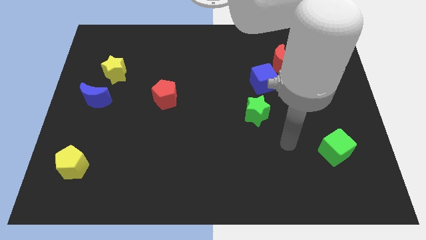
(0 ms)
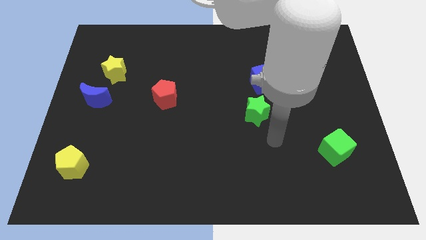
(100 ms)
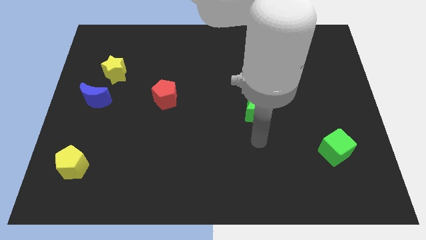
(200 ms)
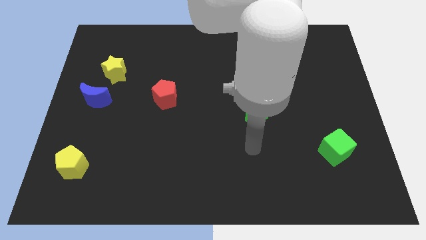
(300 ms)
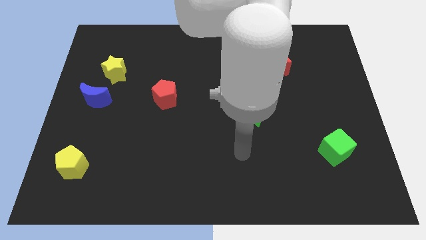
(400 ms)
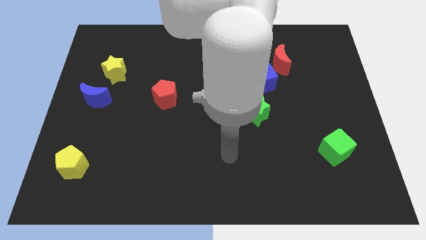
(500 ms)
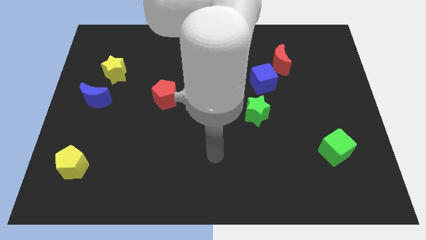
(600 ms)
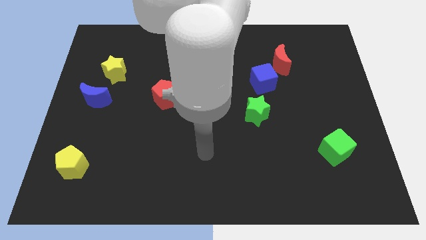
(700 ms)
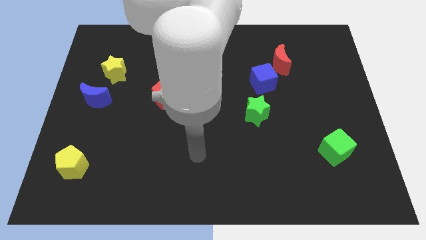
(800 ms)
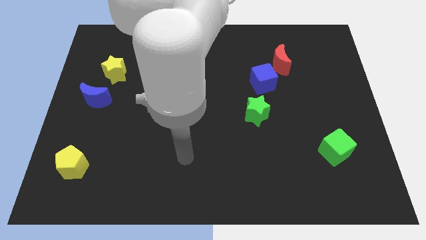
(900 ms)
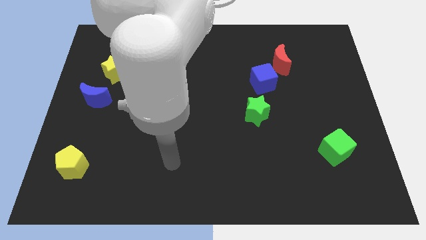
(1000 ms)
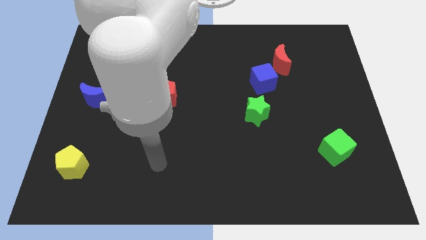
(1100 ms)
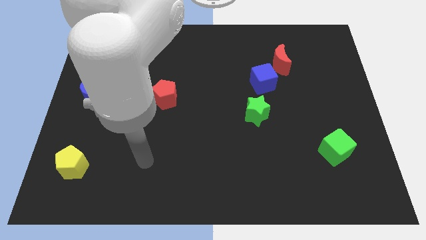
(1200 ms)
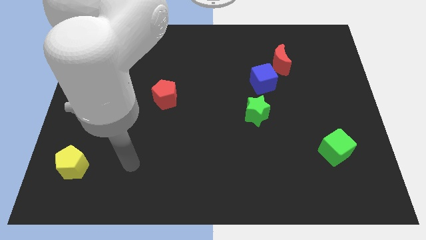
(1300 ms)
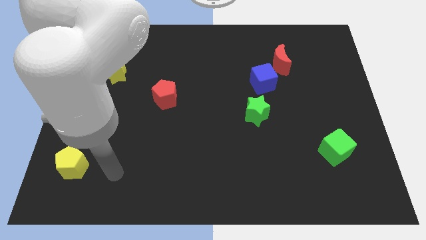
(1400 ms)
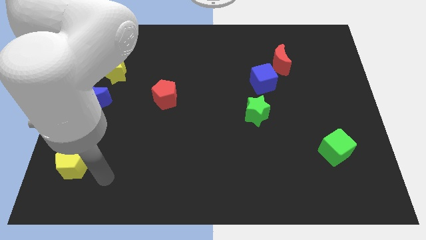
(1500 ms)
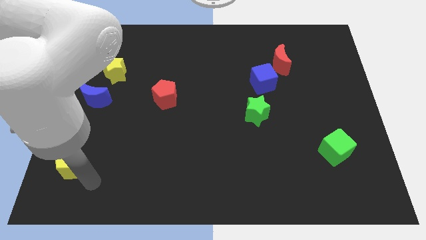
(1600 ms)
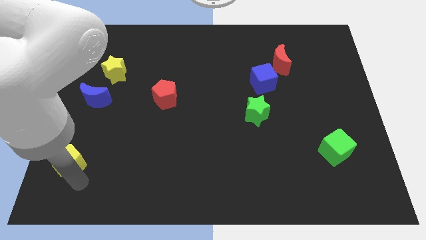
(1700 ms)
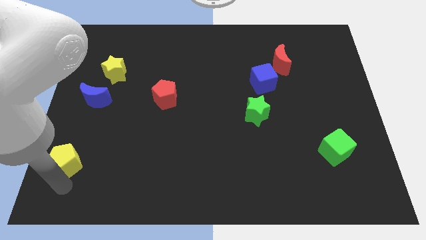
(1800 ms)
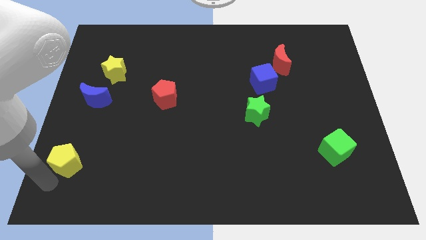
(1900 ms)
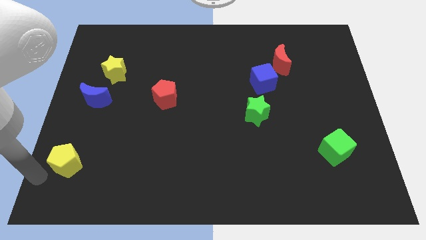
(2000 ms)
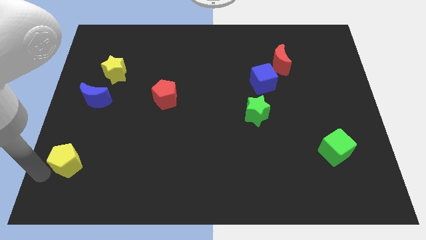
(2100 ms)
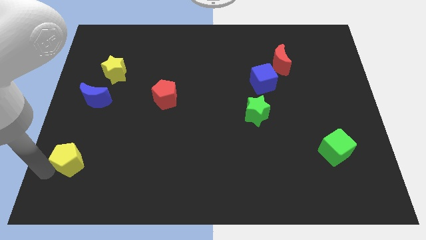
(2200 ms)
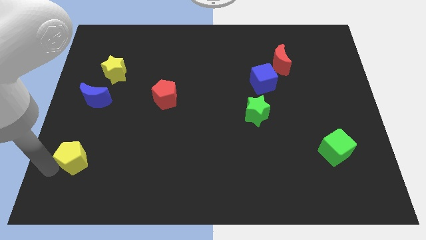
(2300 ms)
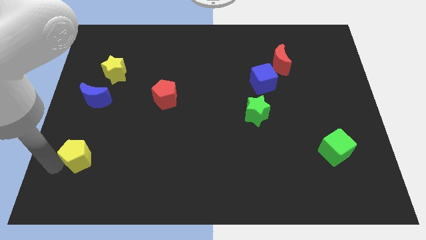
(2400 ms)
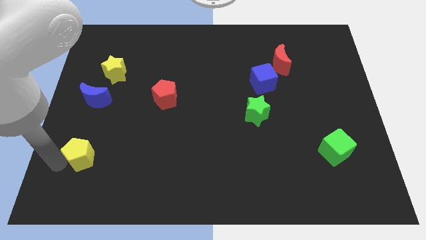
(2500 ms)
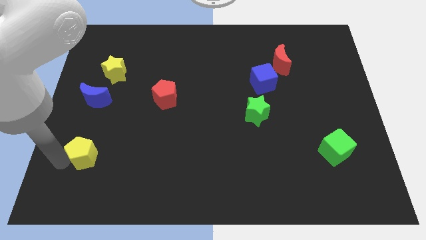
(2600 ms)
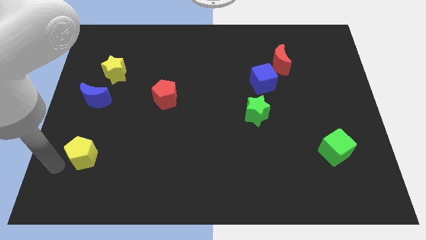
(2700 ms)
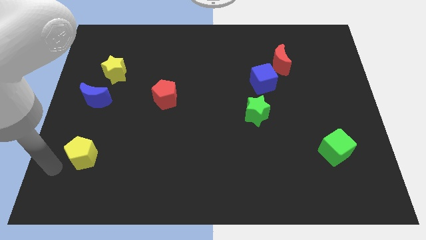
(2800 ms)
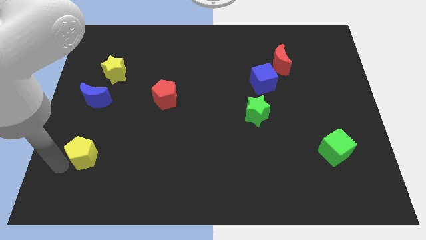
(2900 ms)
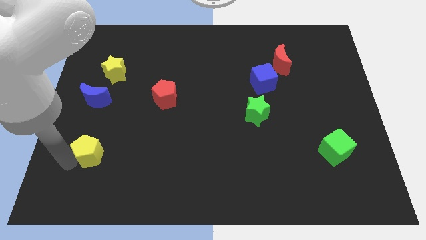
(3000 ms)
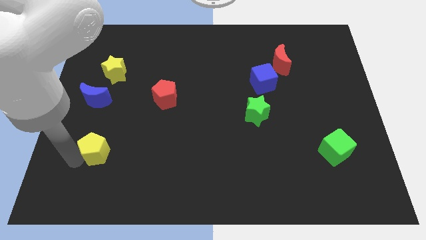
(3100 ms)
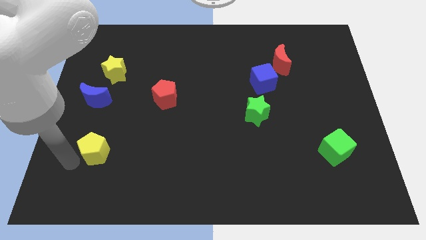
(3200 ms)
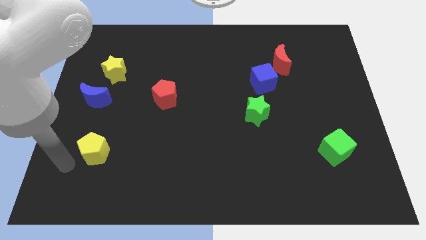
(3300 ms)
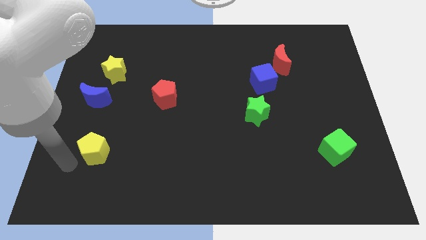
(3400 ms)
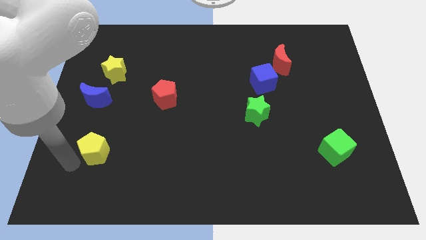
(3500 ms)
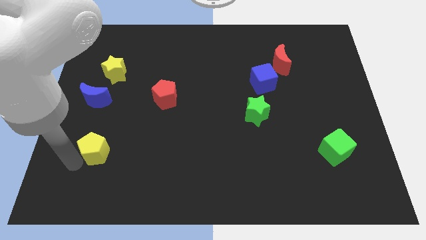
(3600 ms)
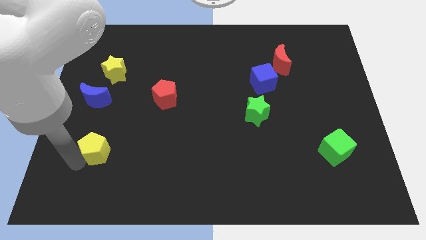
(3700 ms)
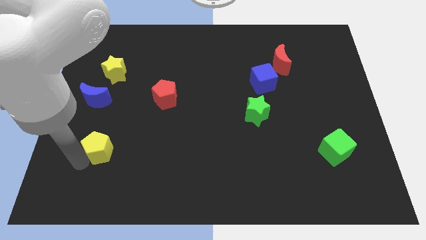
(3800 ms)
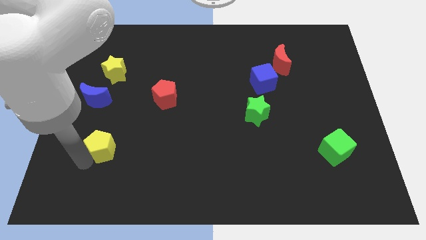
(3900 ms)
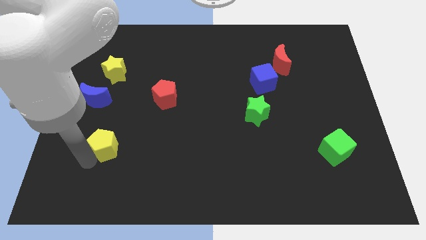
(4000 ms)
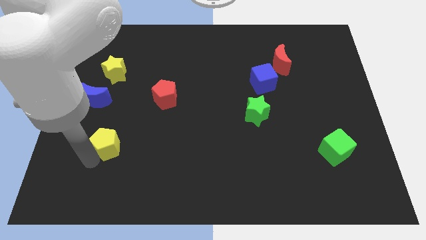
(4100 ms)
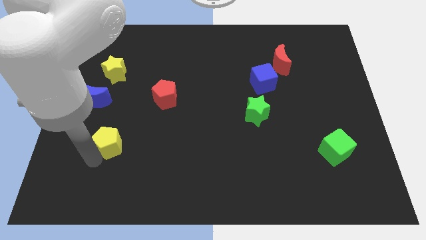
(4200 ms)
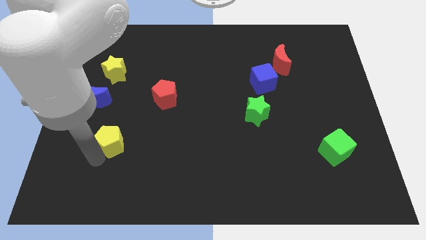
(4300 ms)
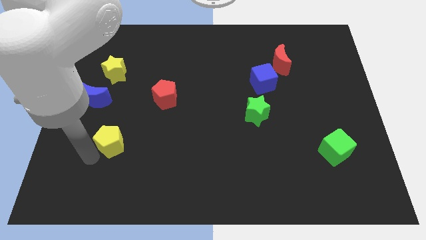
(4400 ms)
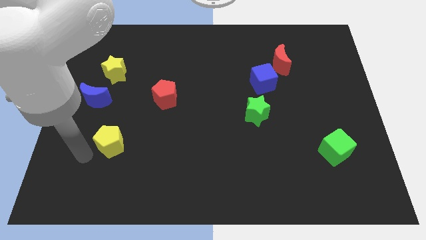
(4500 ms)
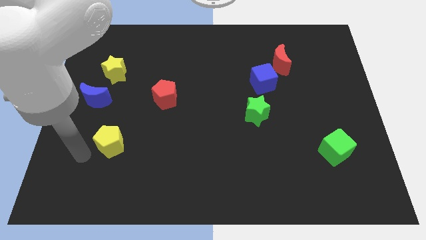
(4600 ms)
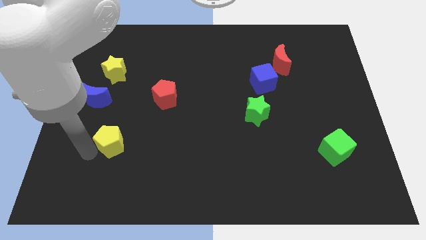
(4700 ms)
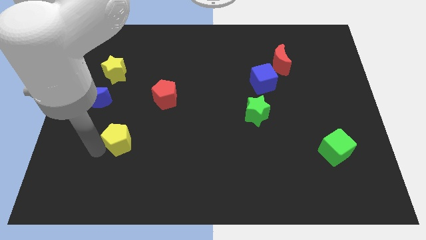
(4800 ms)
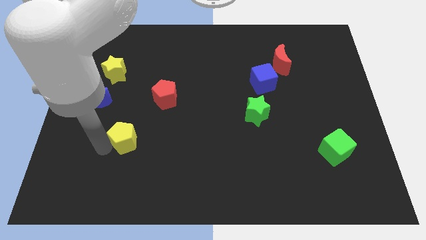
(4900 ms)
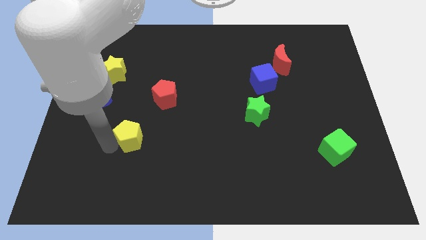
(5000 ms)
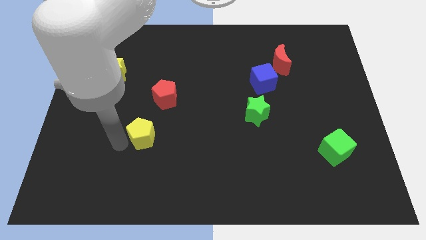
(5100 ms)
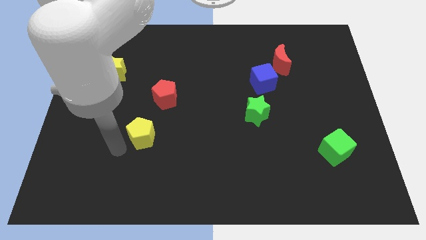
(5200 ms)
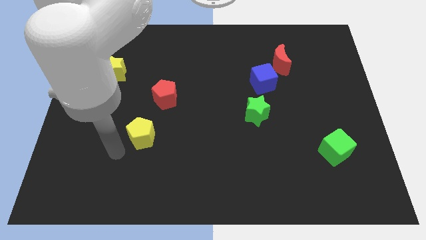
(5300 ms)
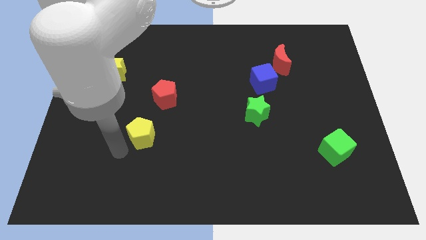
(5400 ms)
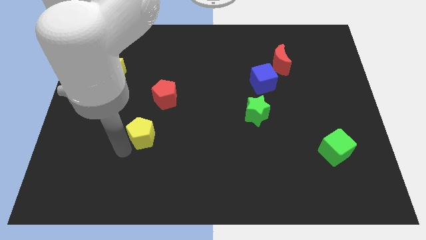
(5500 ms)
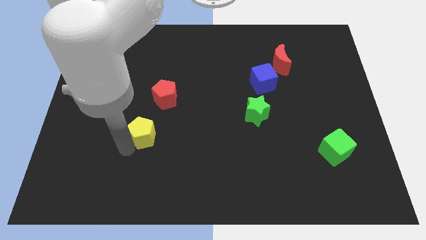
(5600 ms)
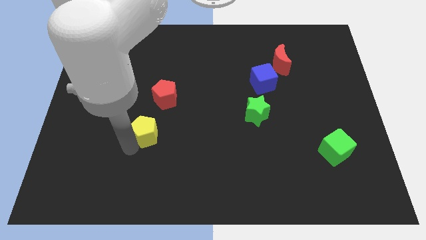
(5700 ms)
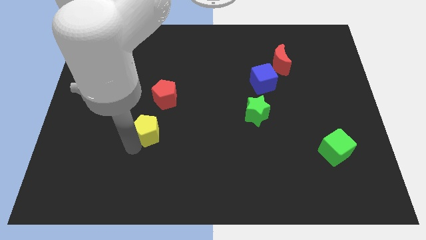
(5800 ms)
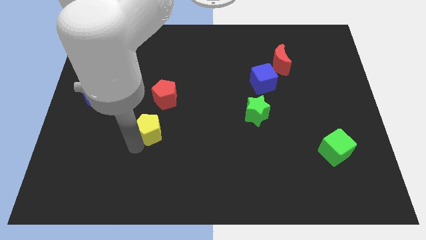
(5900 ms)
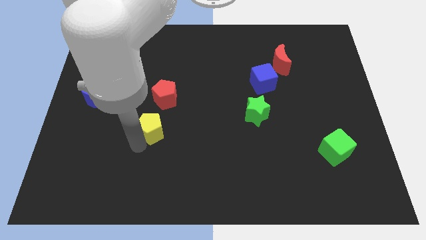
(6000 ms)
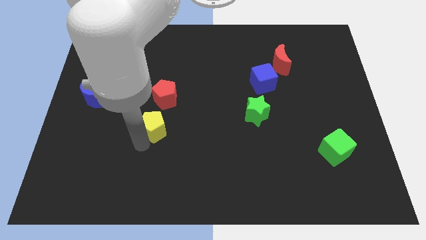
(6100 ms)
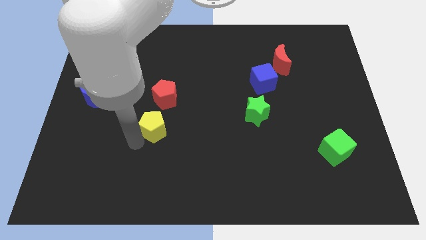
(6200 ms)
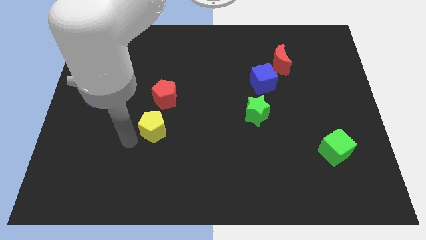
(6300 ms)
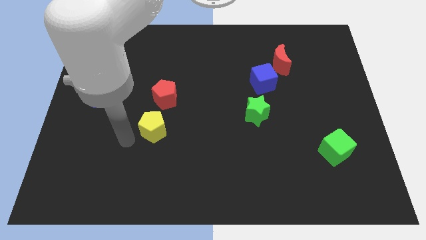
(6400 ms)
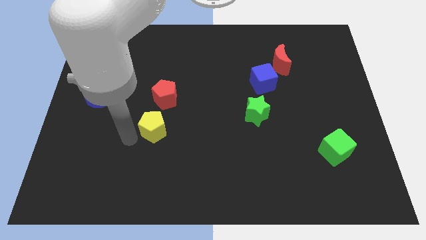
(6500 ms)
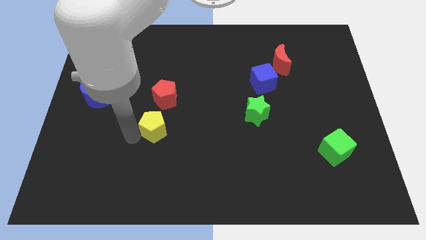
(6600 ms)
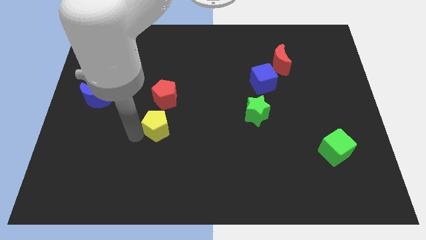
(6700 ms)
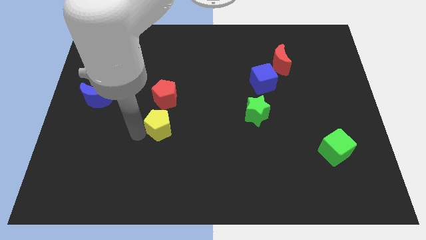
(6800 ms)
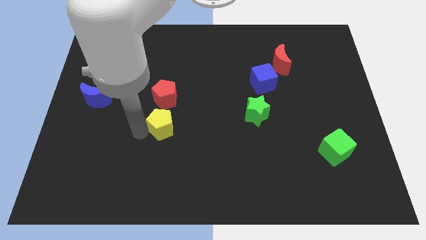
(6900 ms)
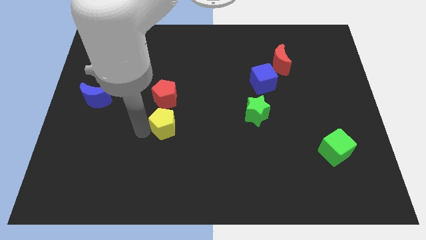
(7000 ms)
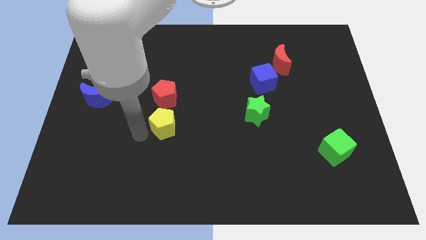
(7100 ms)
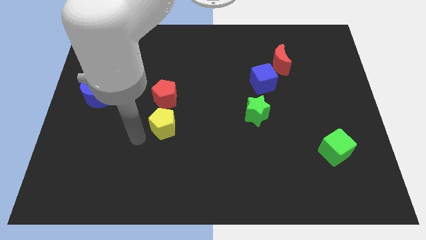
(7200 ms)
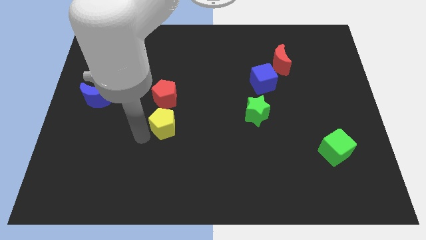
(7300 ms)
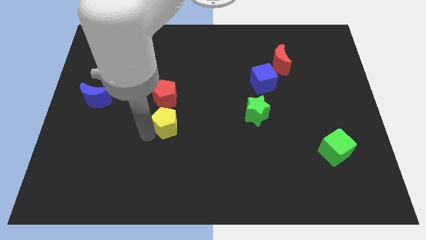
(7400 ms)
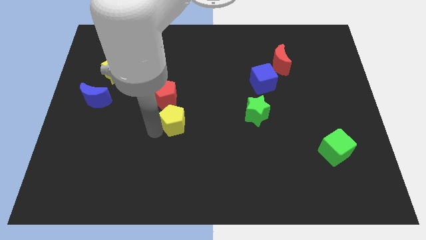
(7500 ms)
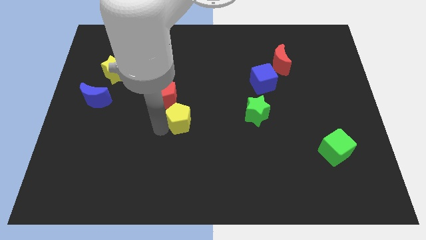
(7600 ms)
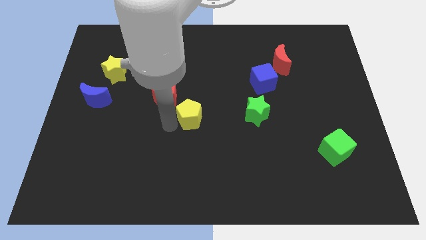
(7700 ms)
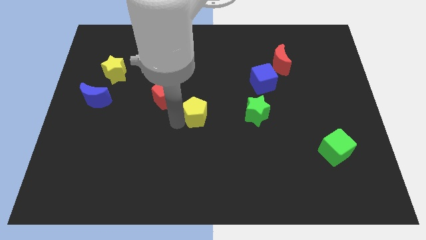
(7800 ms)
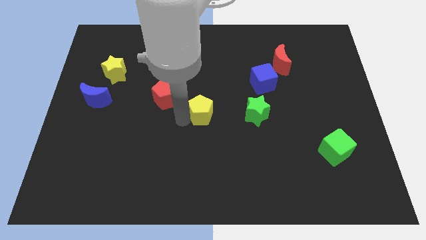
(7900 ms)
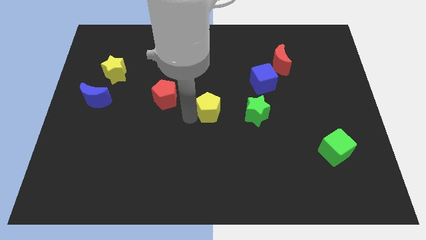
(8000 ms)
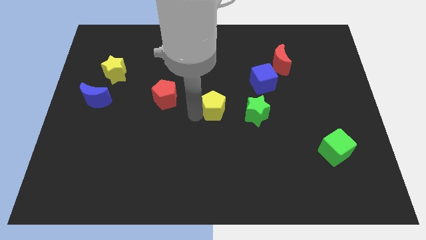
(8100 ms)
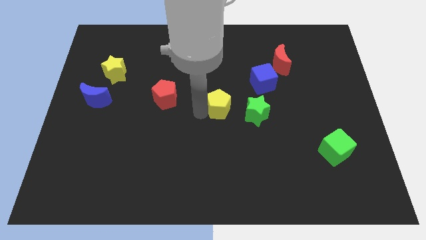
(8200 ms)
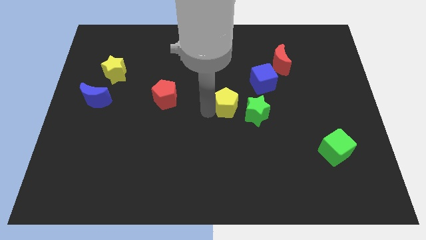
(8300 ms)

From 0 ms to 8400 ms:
move the yellow pentagon diagonally down and to the left of the blue cube
